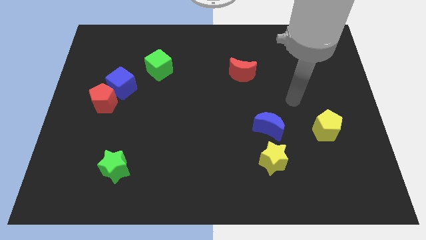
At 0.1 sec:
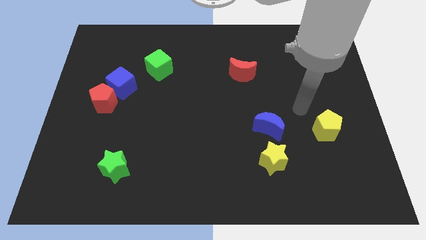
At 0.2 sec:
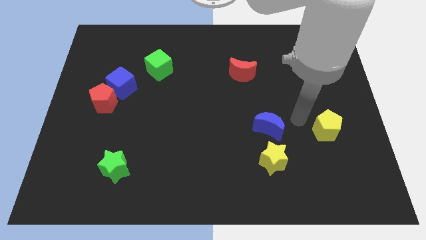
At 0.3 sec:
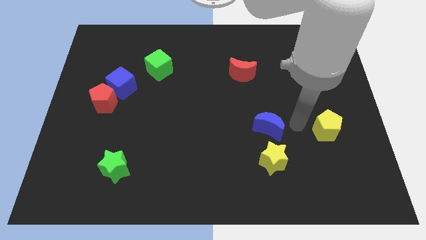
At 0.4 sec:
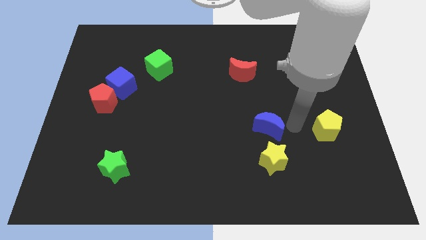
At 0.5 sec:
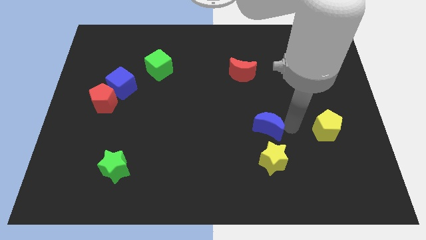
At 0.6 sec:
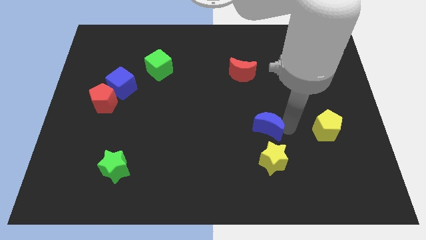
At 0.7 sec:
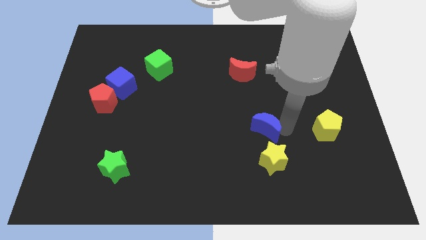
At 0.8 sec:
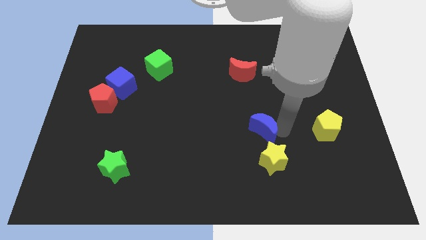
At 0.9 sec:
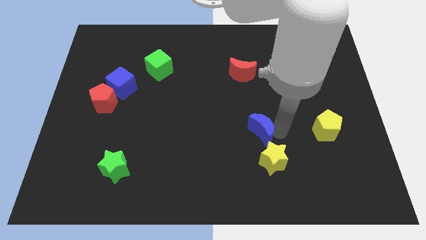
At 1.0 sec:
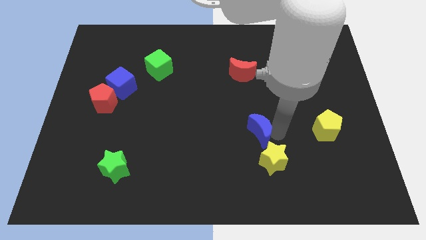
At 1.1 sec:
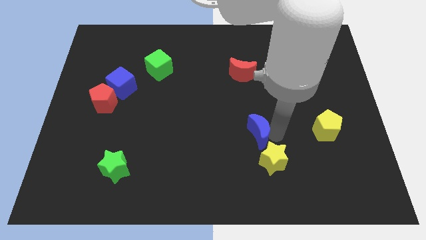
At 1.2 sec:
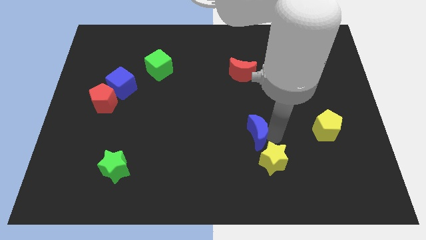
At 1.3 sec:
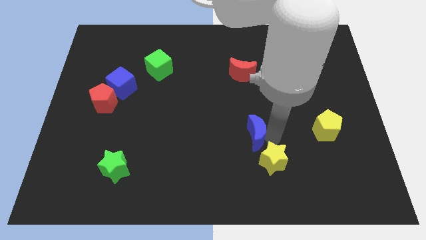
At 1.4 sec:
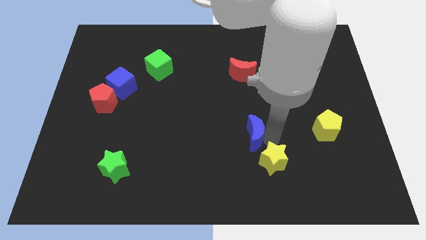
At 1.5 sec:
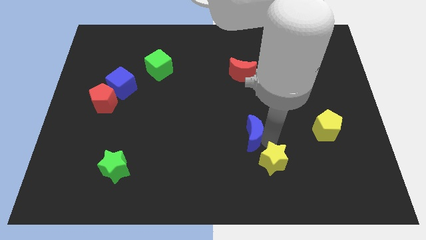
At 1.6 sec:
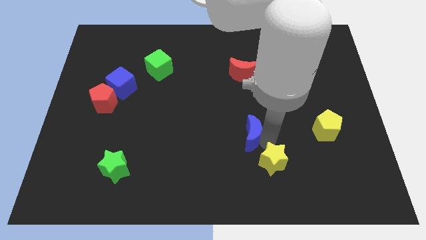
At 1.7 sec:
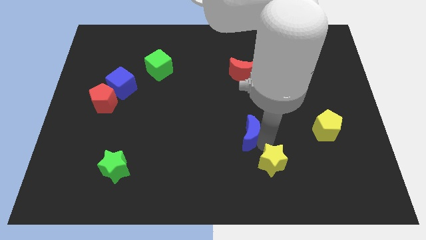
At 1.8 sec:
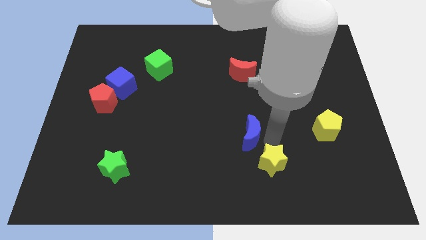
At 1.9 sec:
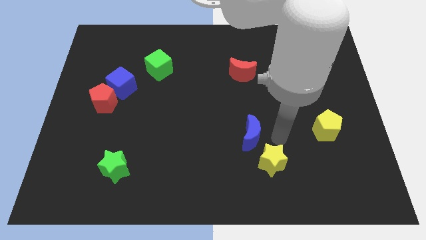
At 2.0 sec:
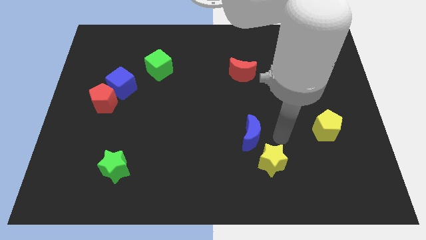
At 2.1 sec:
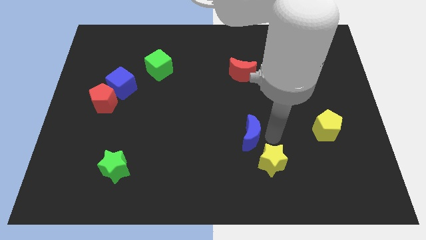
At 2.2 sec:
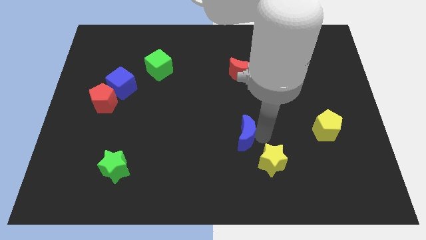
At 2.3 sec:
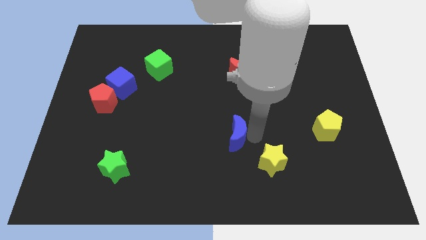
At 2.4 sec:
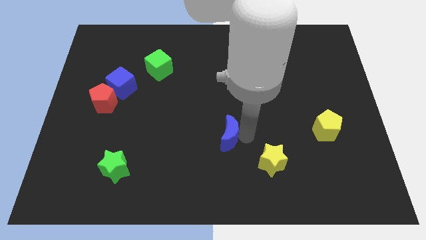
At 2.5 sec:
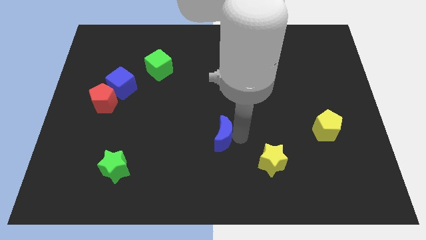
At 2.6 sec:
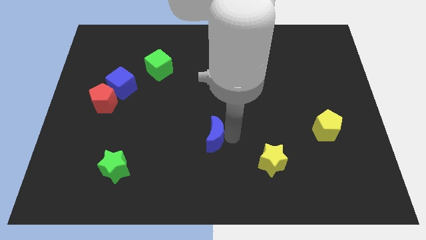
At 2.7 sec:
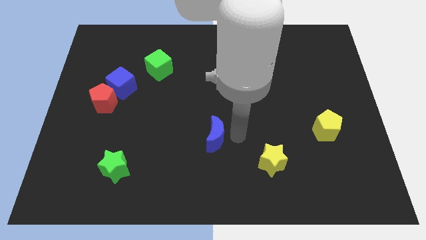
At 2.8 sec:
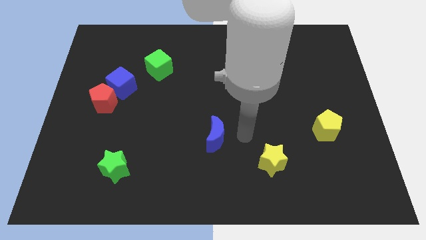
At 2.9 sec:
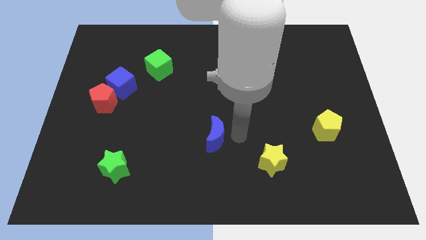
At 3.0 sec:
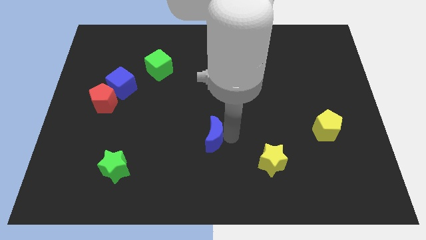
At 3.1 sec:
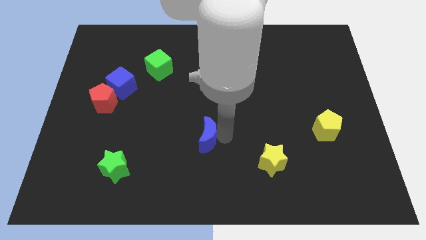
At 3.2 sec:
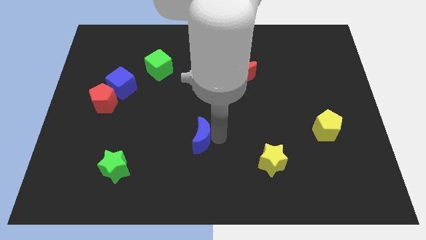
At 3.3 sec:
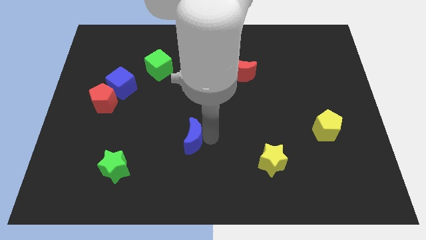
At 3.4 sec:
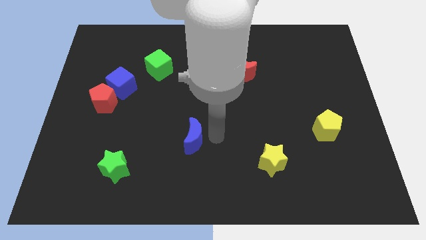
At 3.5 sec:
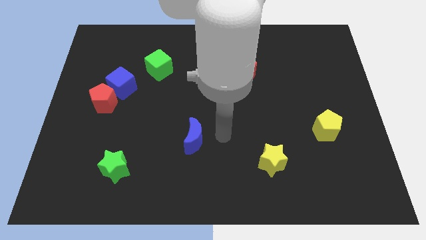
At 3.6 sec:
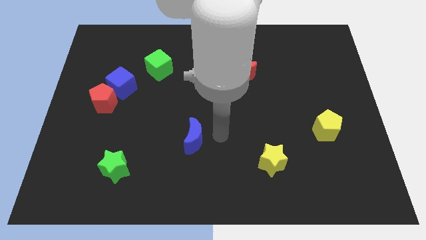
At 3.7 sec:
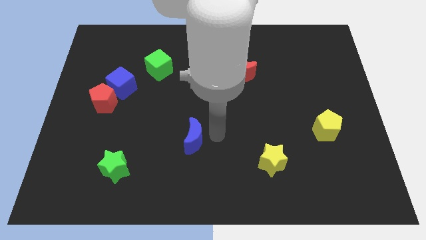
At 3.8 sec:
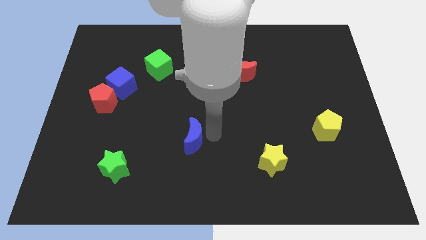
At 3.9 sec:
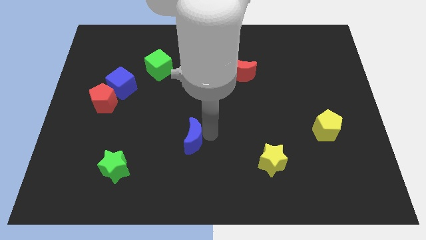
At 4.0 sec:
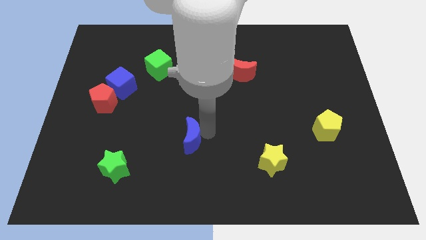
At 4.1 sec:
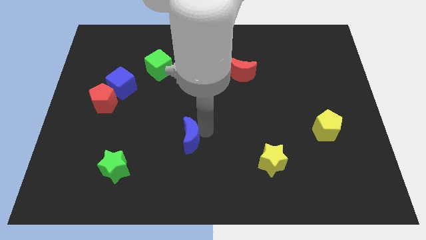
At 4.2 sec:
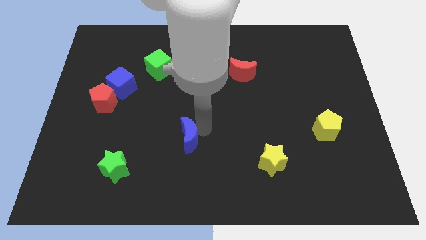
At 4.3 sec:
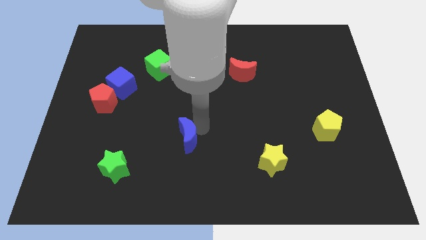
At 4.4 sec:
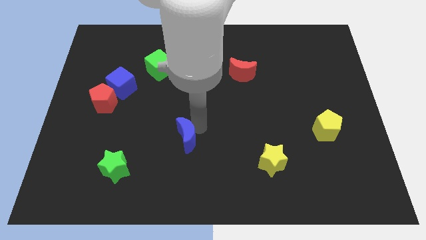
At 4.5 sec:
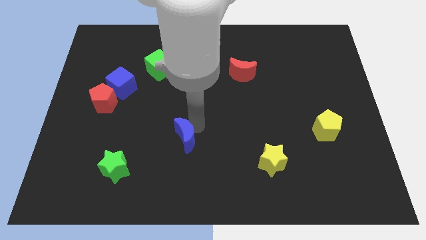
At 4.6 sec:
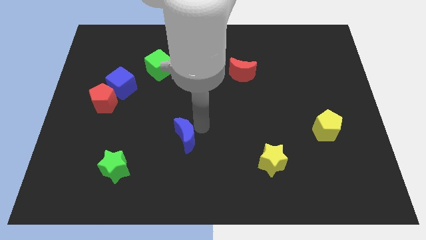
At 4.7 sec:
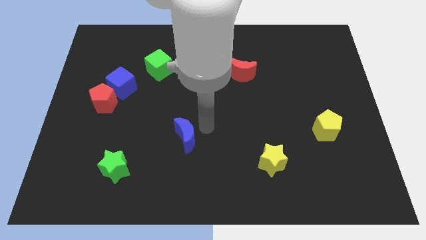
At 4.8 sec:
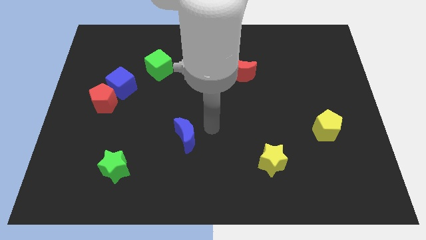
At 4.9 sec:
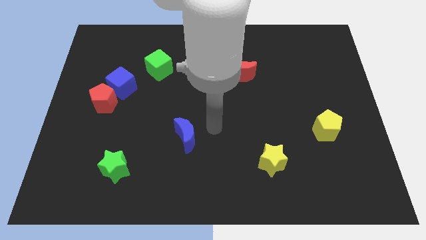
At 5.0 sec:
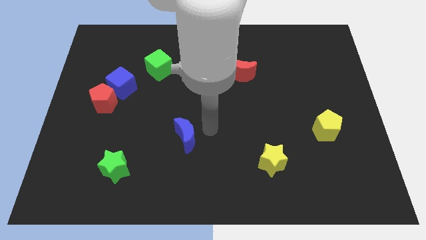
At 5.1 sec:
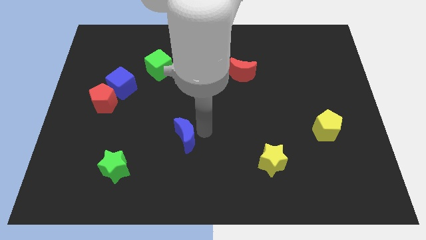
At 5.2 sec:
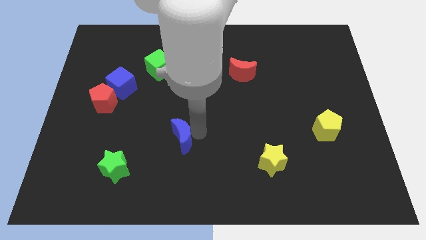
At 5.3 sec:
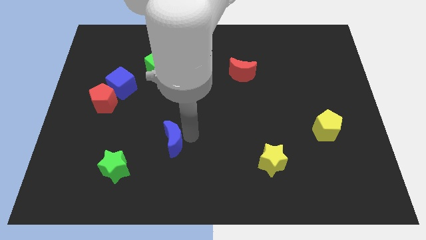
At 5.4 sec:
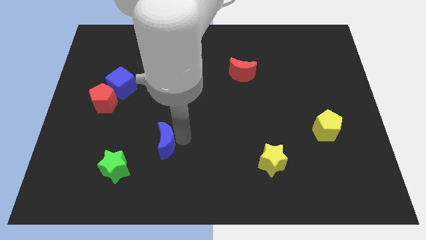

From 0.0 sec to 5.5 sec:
push the blue moon to the top right of the green star

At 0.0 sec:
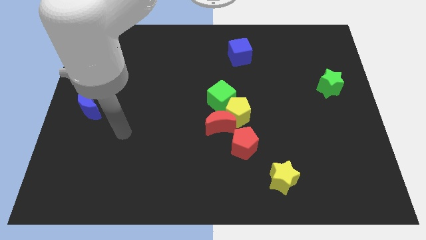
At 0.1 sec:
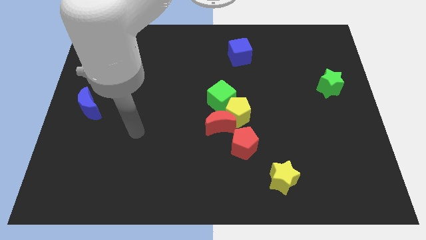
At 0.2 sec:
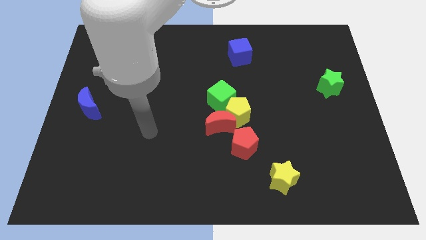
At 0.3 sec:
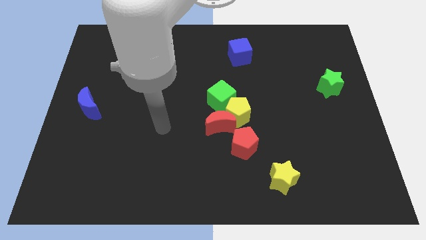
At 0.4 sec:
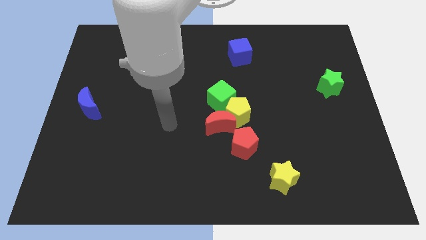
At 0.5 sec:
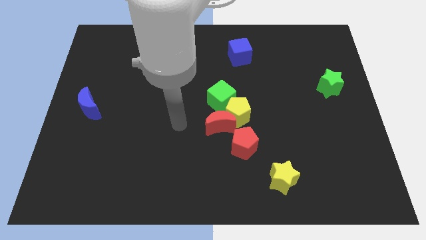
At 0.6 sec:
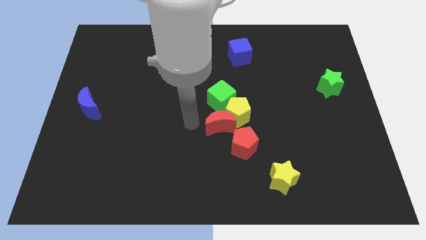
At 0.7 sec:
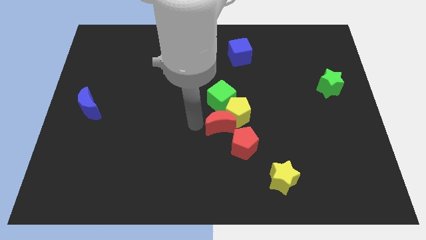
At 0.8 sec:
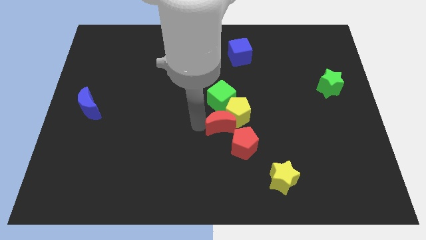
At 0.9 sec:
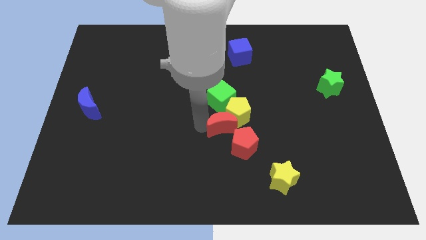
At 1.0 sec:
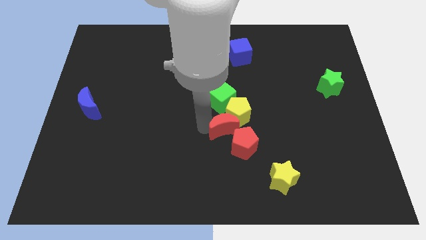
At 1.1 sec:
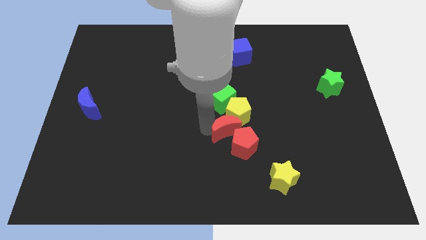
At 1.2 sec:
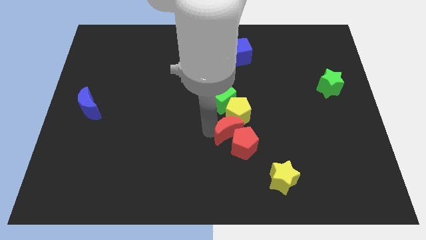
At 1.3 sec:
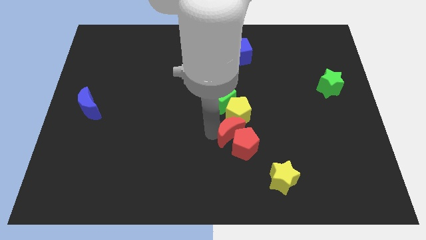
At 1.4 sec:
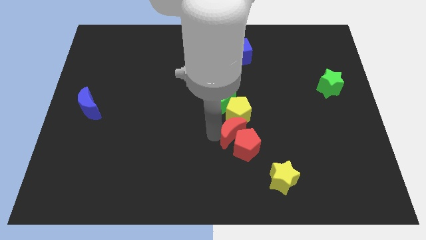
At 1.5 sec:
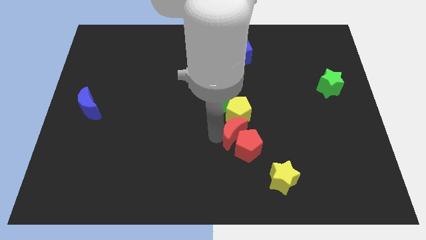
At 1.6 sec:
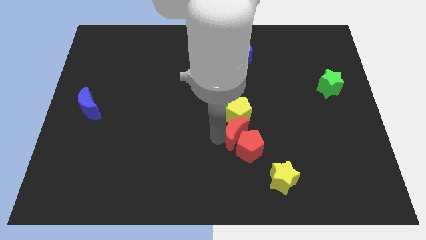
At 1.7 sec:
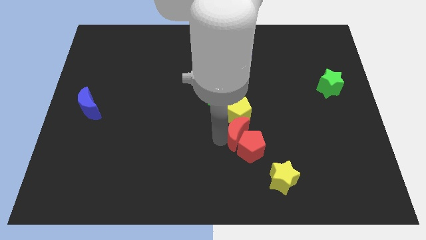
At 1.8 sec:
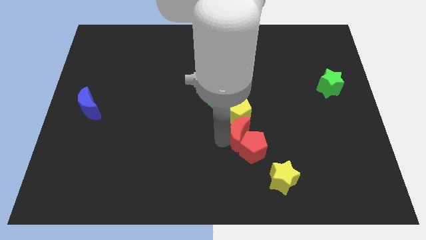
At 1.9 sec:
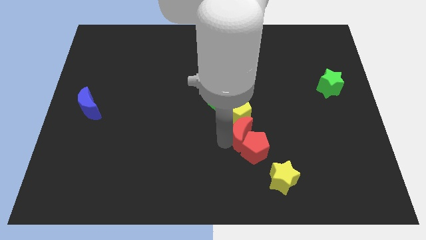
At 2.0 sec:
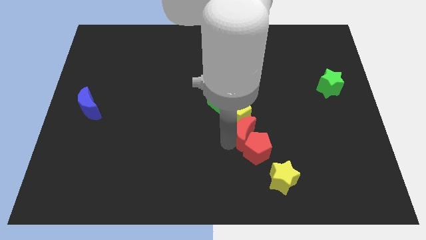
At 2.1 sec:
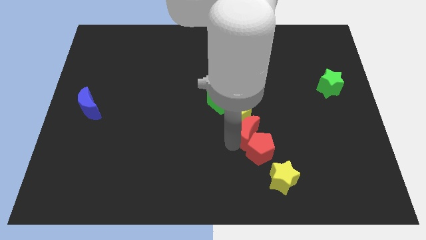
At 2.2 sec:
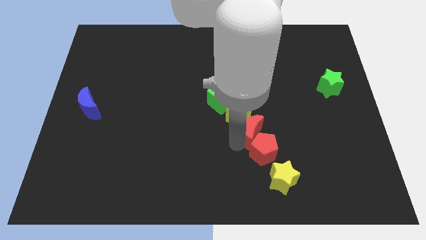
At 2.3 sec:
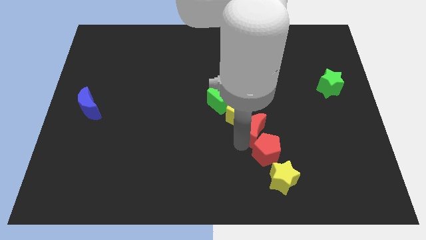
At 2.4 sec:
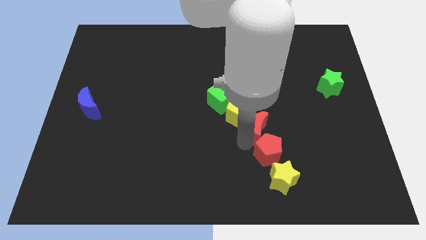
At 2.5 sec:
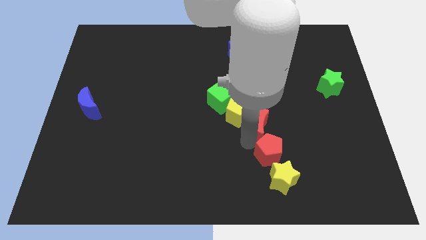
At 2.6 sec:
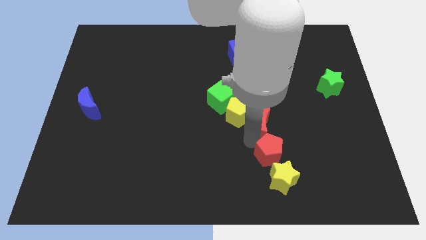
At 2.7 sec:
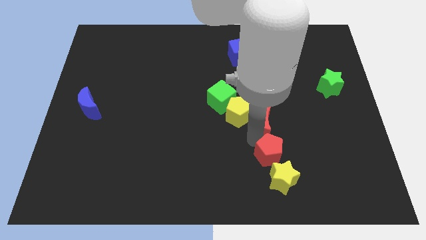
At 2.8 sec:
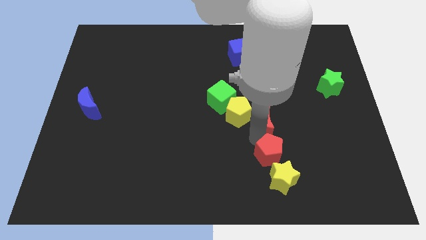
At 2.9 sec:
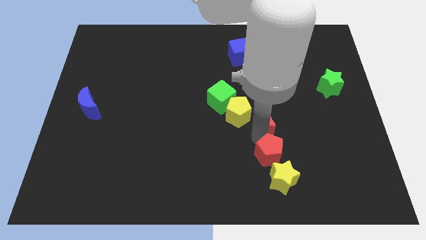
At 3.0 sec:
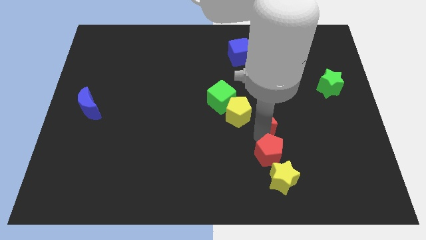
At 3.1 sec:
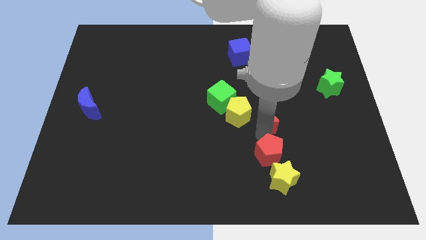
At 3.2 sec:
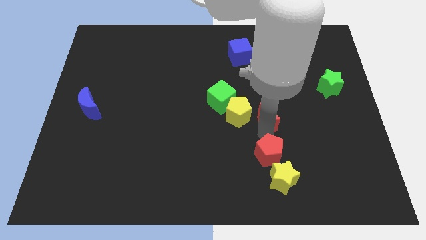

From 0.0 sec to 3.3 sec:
move the red moon to the top right of the yellow pentagon
